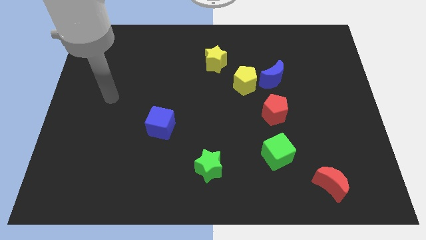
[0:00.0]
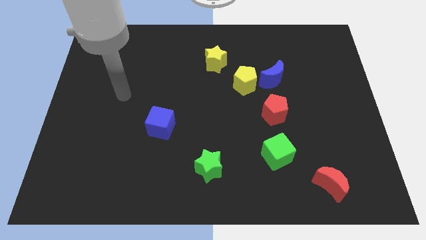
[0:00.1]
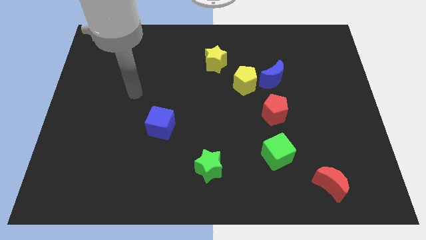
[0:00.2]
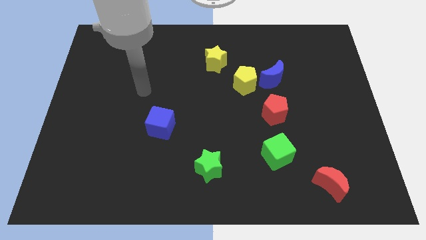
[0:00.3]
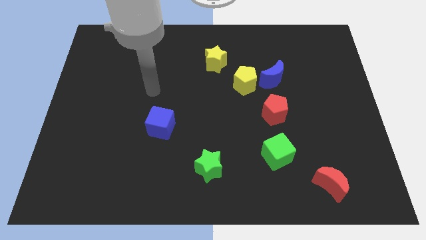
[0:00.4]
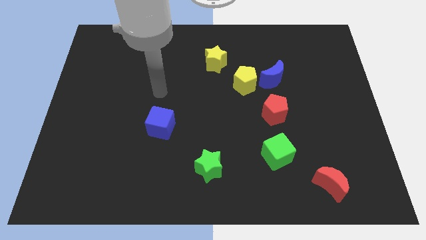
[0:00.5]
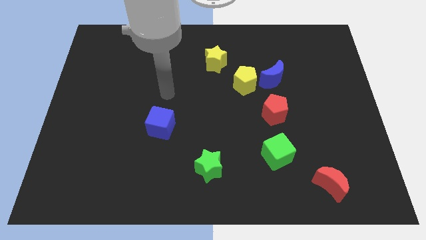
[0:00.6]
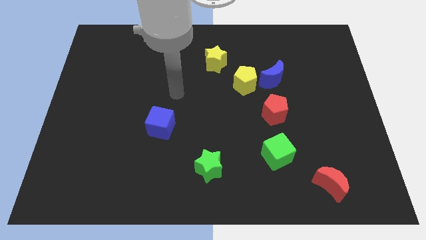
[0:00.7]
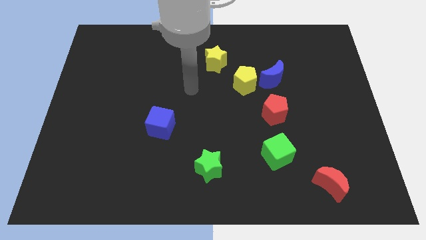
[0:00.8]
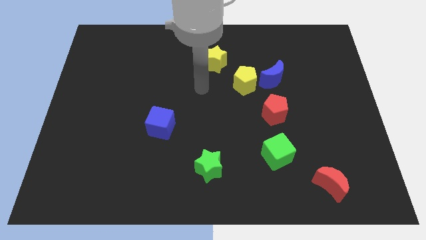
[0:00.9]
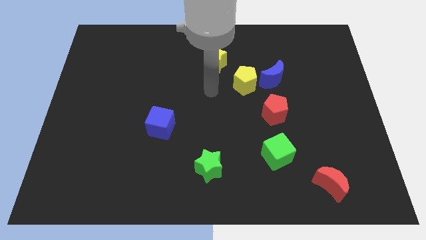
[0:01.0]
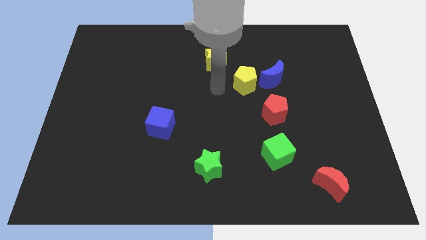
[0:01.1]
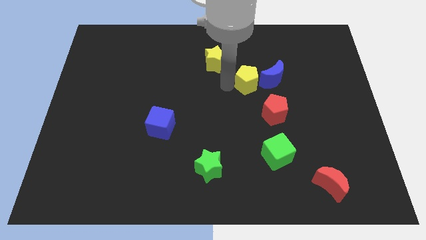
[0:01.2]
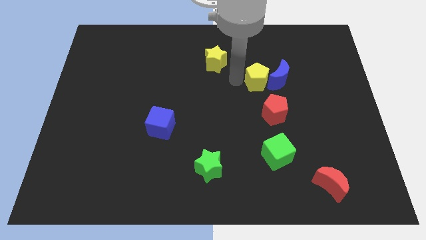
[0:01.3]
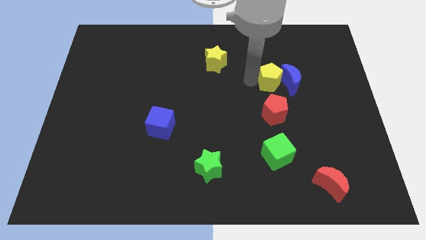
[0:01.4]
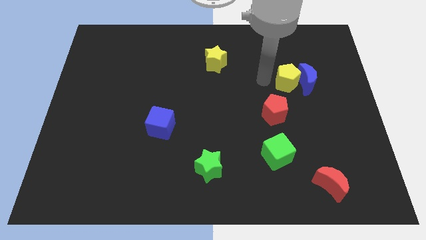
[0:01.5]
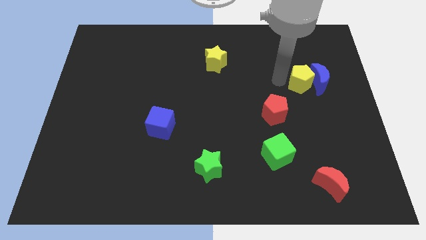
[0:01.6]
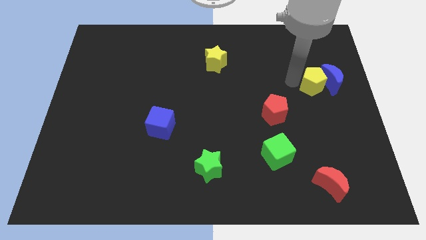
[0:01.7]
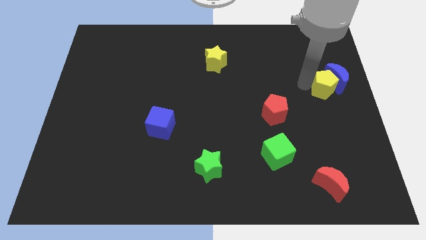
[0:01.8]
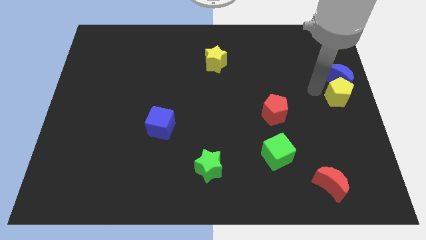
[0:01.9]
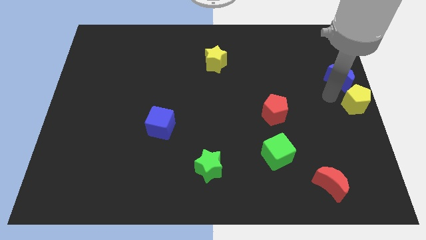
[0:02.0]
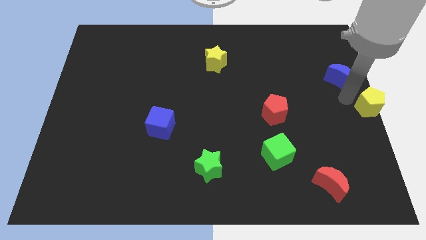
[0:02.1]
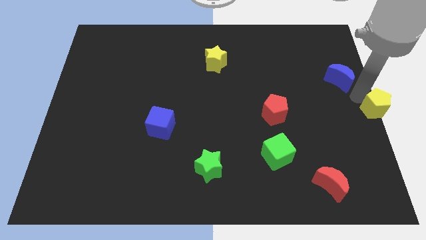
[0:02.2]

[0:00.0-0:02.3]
separate the blue moon from the yellow pentagon

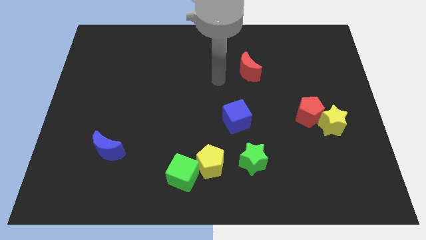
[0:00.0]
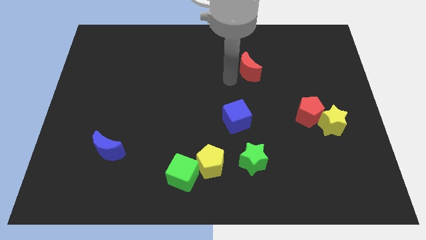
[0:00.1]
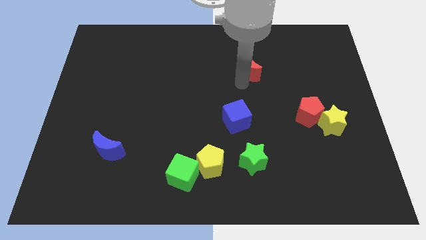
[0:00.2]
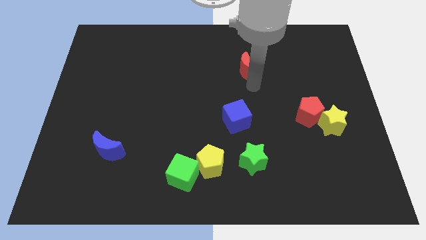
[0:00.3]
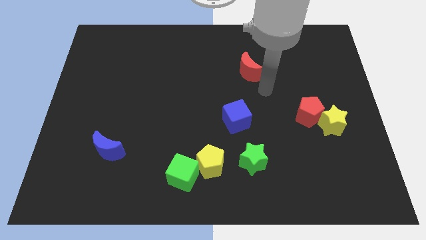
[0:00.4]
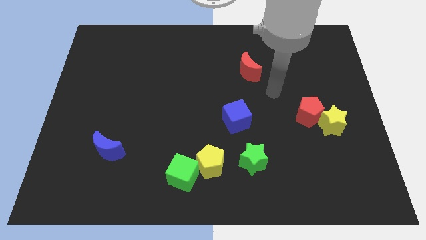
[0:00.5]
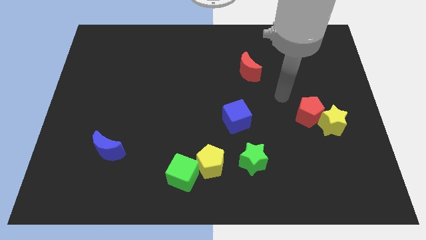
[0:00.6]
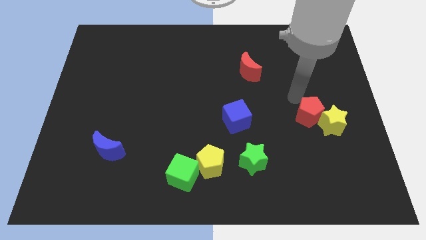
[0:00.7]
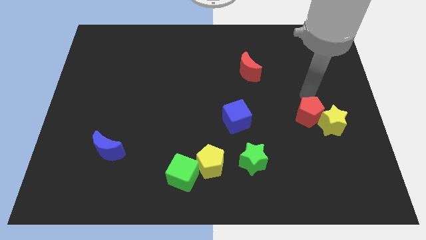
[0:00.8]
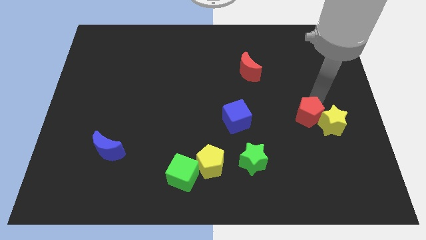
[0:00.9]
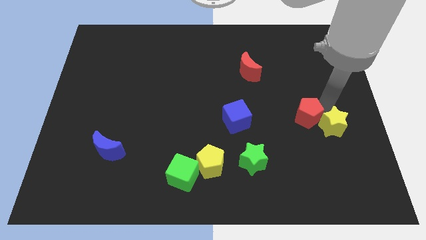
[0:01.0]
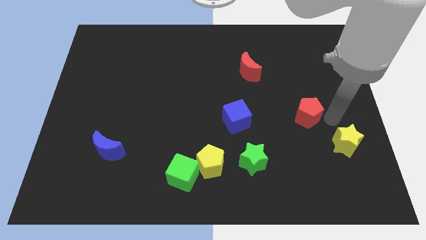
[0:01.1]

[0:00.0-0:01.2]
pull the red pentagon apart from the yellow star

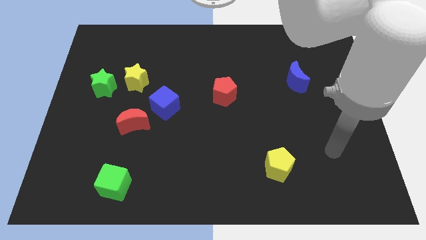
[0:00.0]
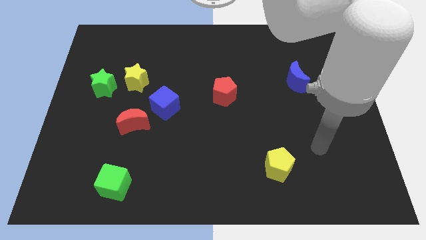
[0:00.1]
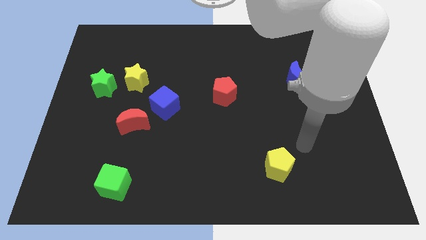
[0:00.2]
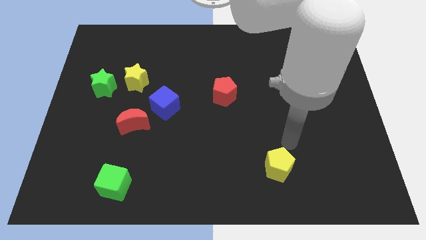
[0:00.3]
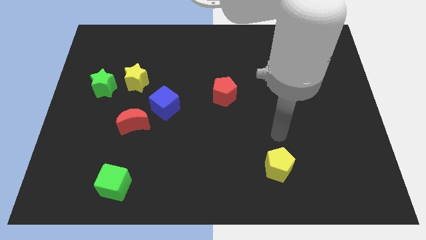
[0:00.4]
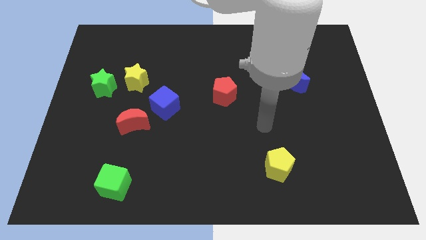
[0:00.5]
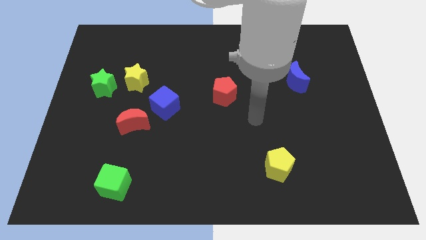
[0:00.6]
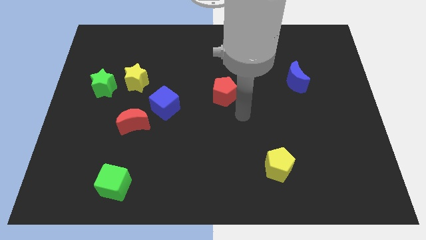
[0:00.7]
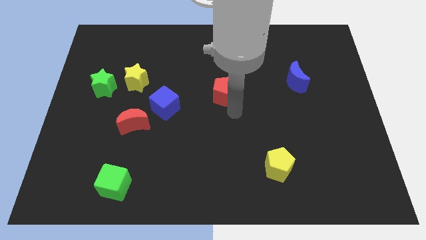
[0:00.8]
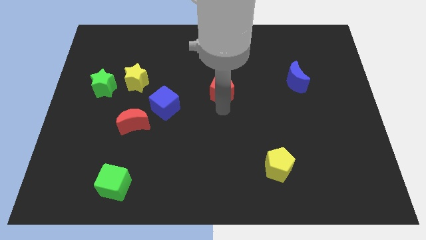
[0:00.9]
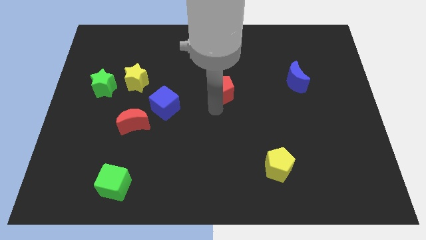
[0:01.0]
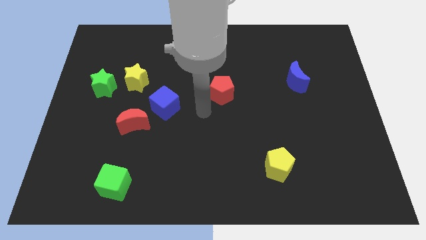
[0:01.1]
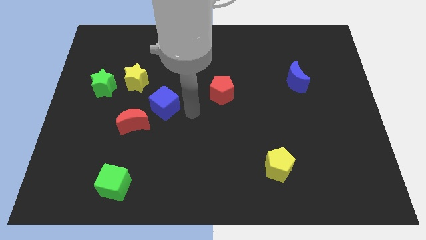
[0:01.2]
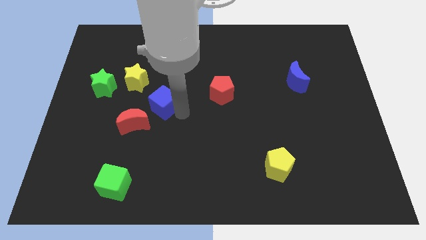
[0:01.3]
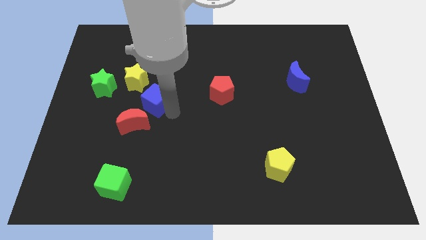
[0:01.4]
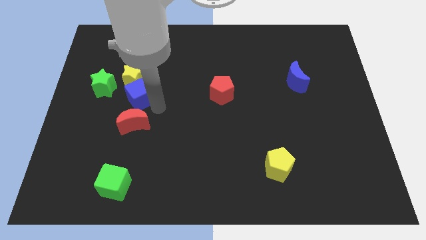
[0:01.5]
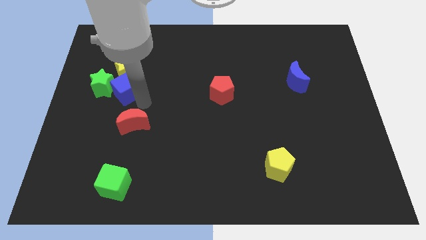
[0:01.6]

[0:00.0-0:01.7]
separate the red moon from the blue cube

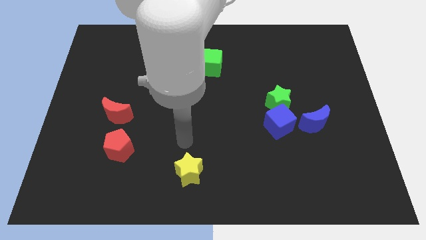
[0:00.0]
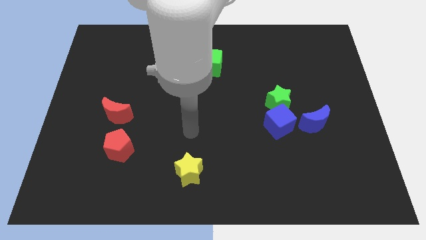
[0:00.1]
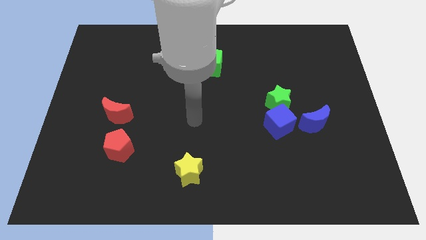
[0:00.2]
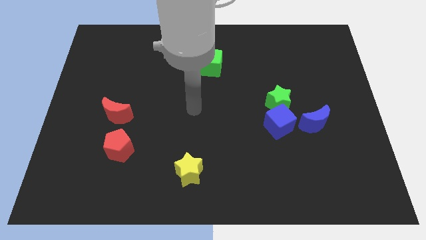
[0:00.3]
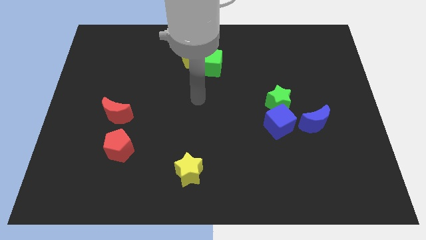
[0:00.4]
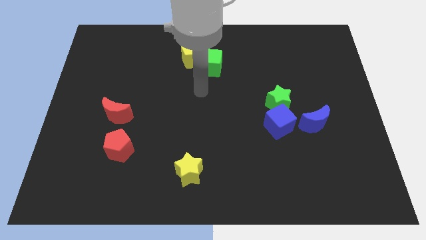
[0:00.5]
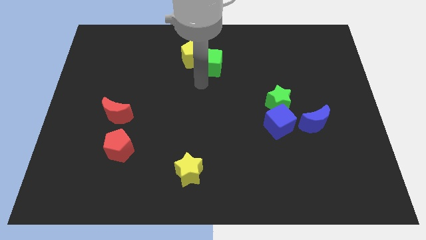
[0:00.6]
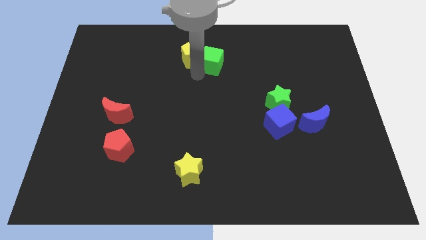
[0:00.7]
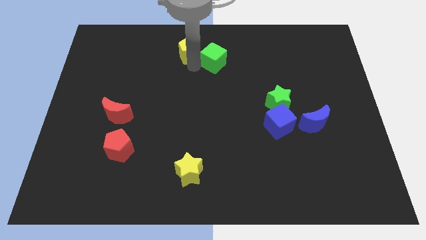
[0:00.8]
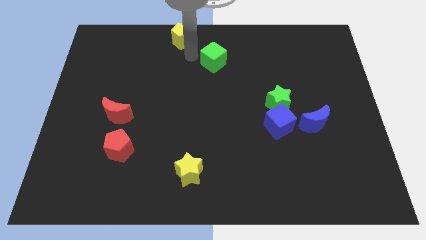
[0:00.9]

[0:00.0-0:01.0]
pull the green cube apart from the yellow pentagon

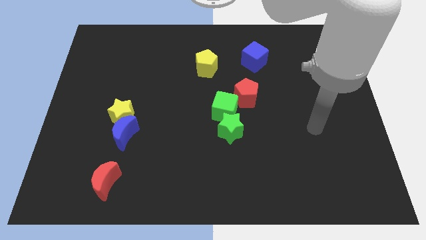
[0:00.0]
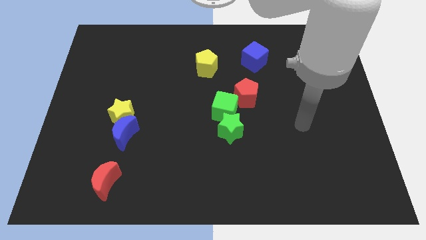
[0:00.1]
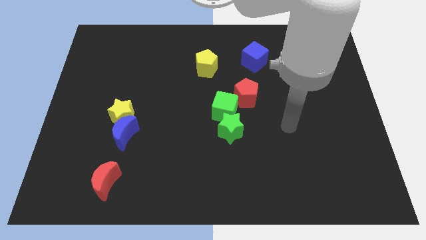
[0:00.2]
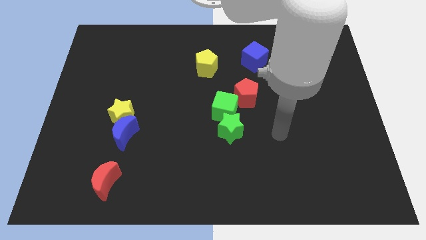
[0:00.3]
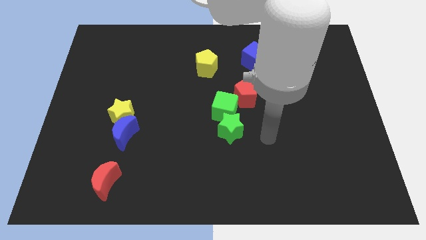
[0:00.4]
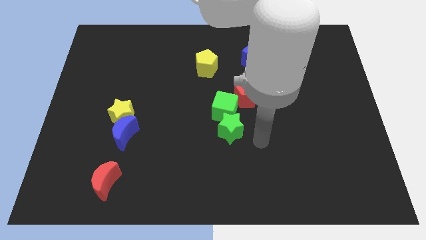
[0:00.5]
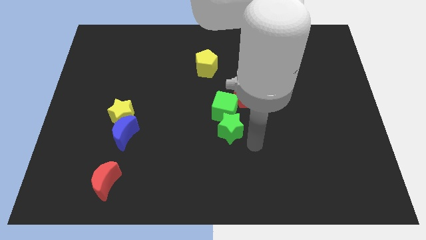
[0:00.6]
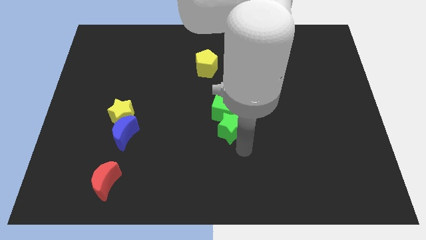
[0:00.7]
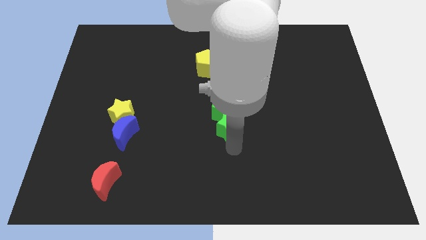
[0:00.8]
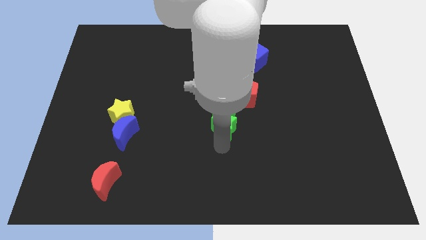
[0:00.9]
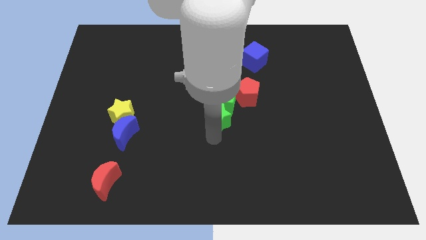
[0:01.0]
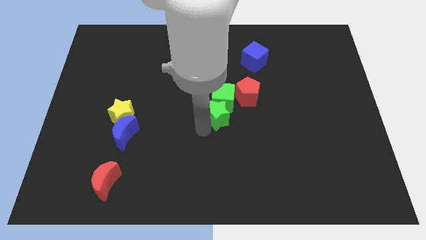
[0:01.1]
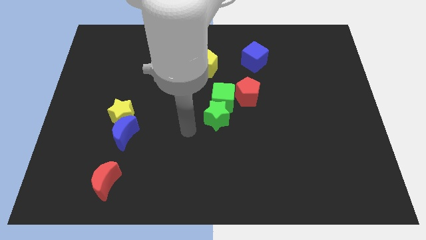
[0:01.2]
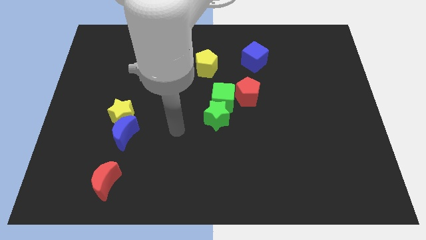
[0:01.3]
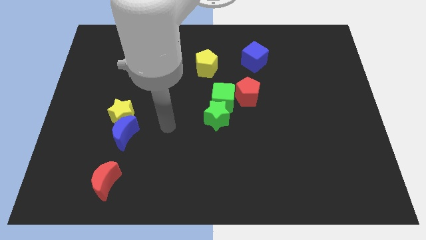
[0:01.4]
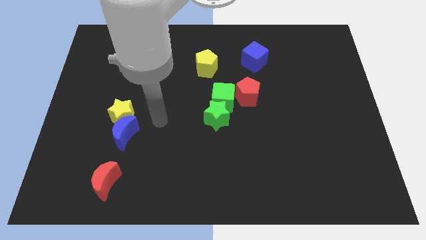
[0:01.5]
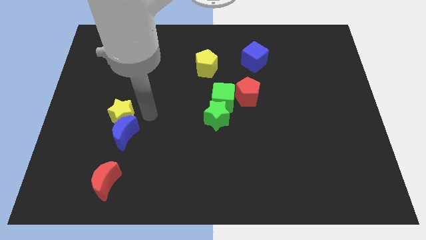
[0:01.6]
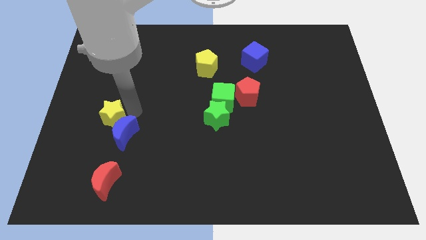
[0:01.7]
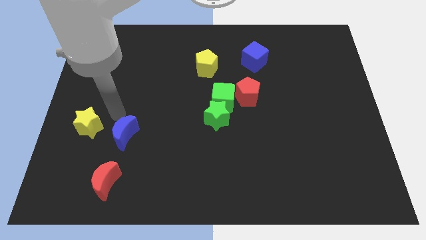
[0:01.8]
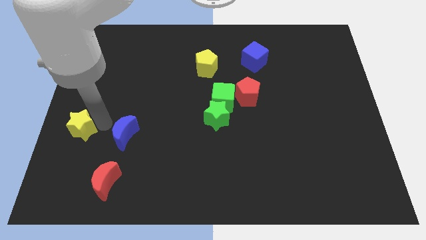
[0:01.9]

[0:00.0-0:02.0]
separate the blue moon from the yellow star

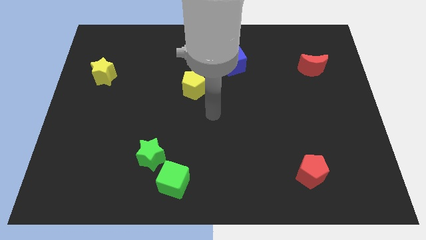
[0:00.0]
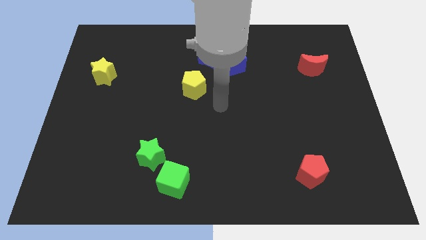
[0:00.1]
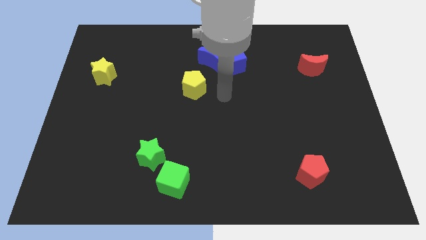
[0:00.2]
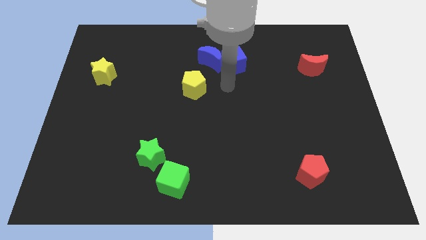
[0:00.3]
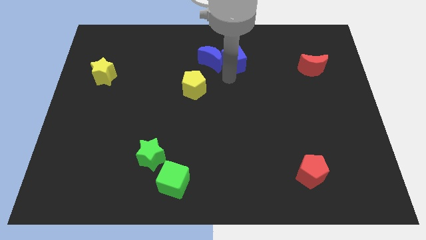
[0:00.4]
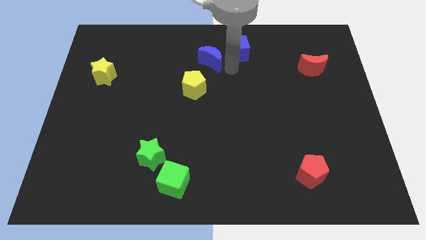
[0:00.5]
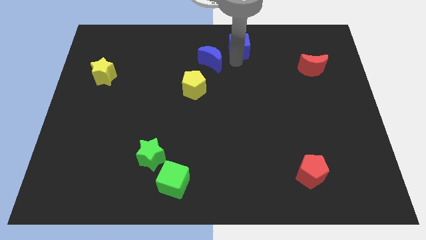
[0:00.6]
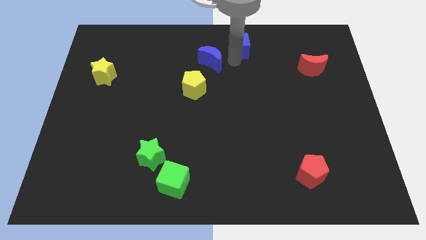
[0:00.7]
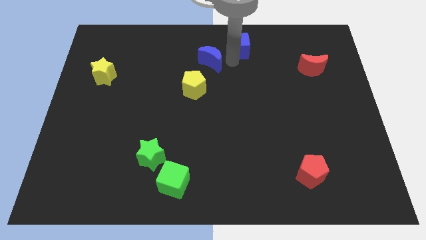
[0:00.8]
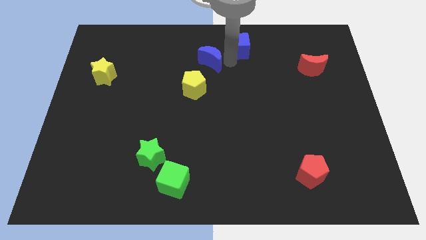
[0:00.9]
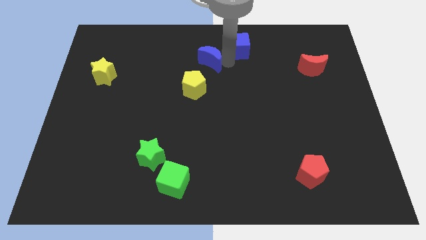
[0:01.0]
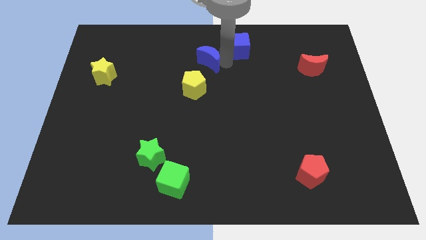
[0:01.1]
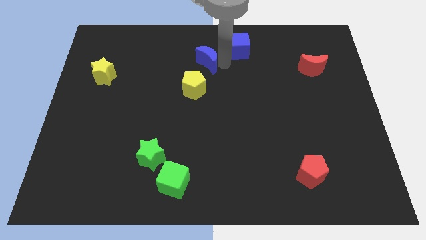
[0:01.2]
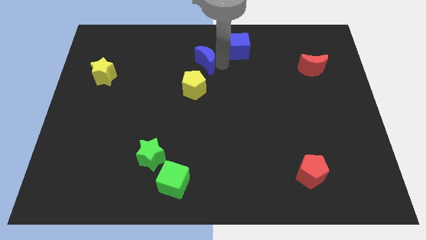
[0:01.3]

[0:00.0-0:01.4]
move the blue moon away from the blue cube
